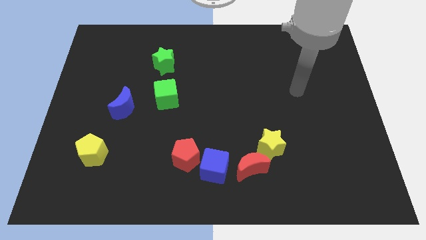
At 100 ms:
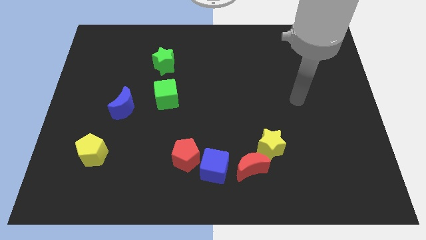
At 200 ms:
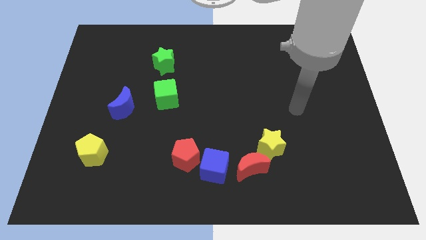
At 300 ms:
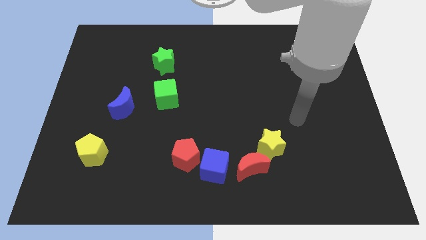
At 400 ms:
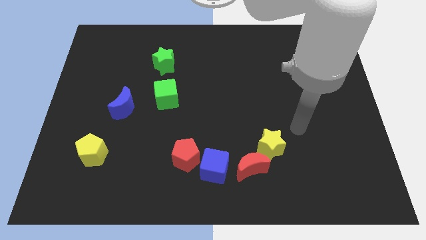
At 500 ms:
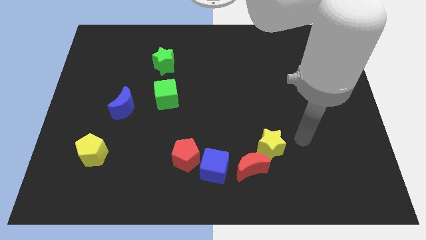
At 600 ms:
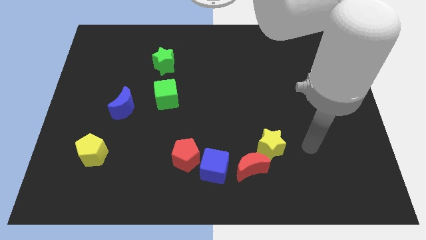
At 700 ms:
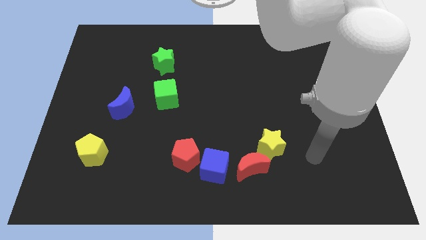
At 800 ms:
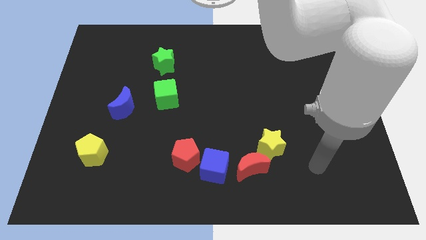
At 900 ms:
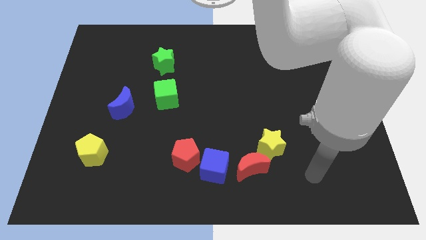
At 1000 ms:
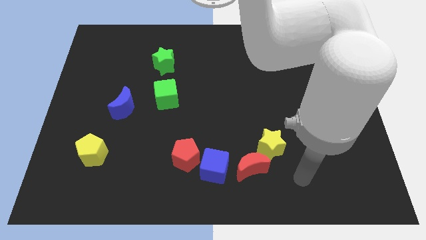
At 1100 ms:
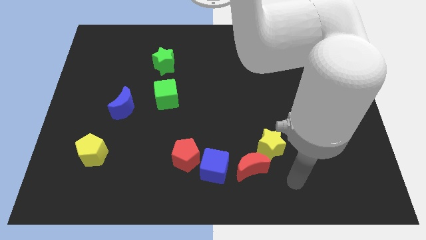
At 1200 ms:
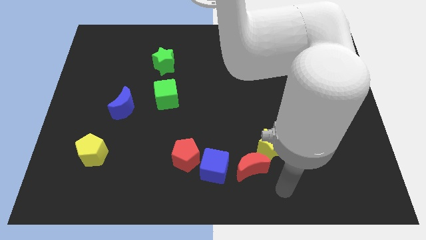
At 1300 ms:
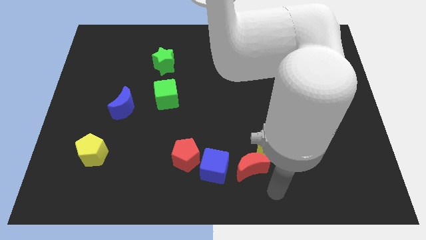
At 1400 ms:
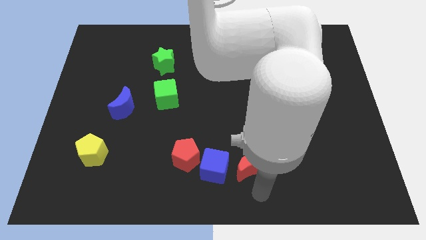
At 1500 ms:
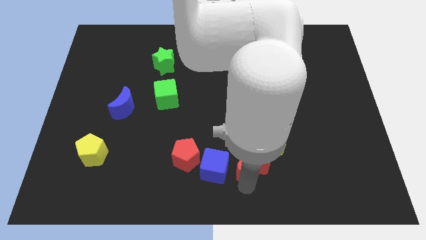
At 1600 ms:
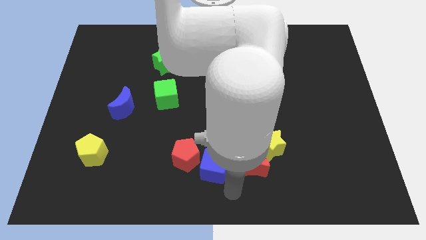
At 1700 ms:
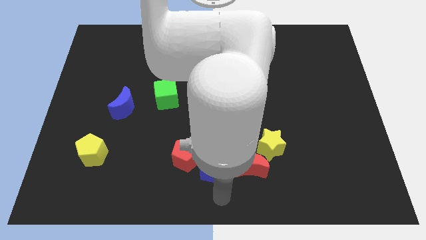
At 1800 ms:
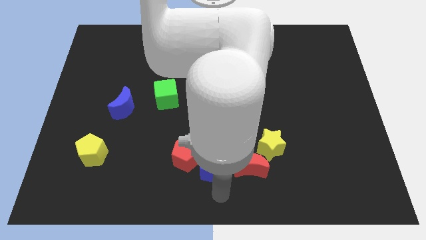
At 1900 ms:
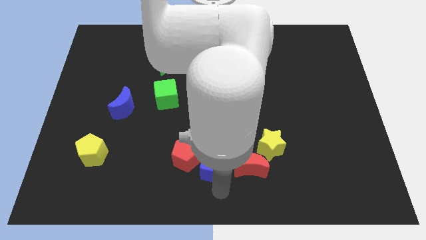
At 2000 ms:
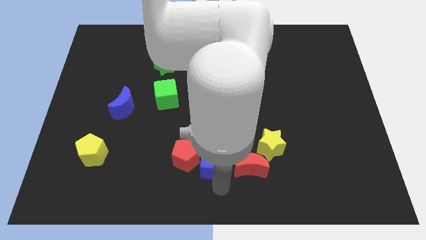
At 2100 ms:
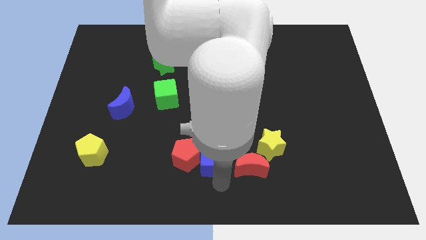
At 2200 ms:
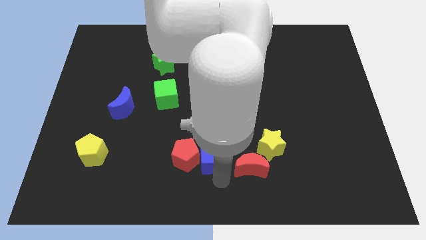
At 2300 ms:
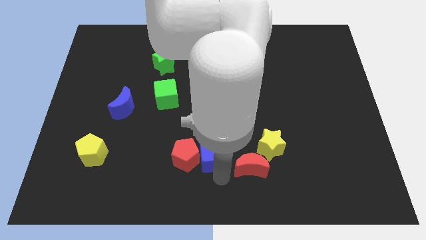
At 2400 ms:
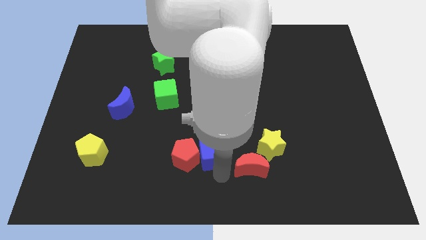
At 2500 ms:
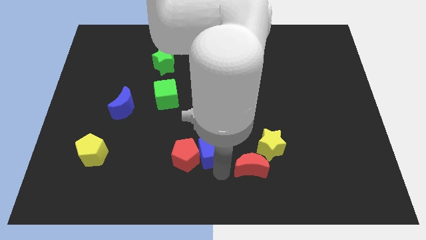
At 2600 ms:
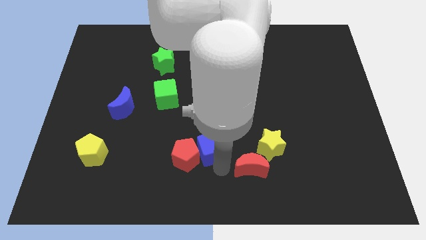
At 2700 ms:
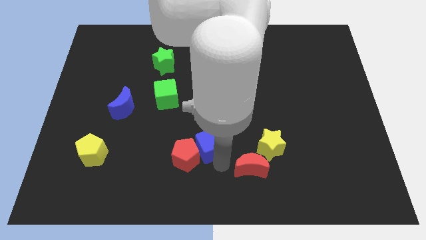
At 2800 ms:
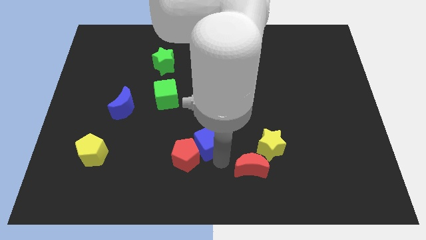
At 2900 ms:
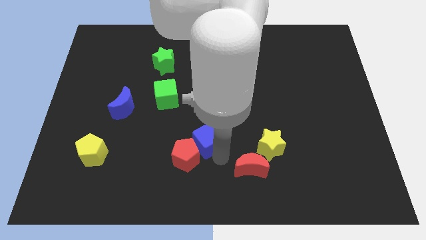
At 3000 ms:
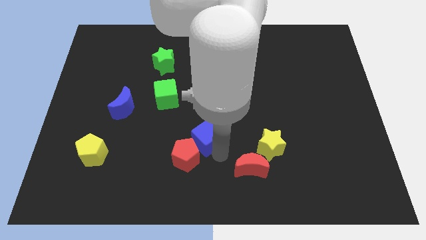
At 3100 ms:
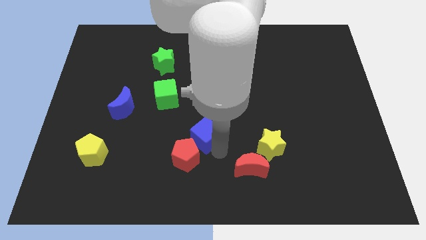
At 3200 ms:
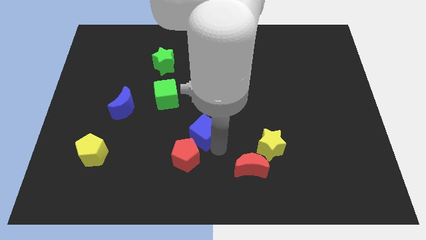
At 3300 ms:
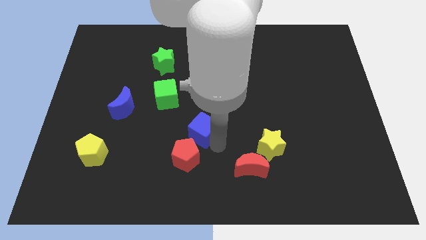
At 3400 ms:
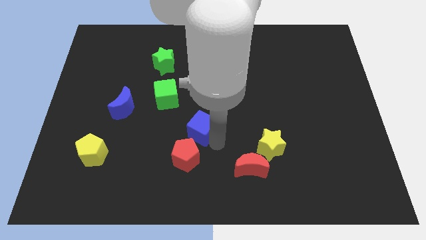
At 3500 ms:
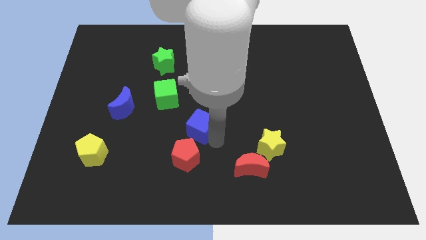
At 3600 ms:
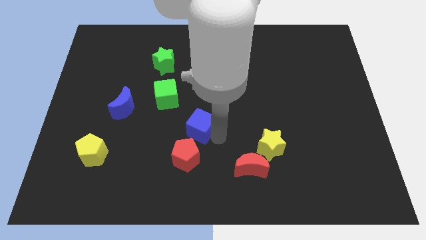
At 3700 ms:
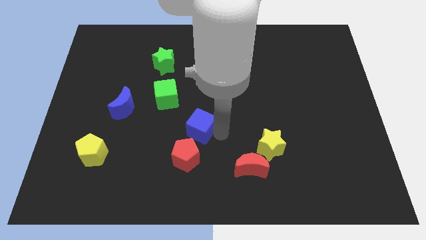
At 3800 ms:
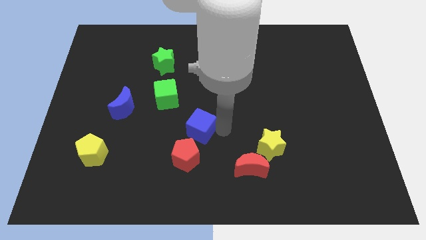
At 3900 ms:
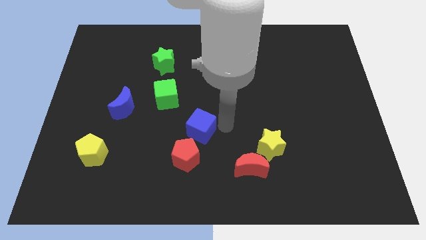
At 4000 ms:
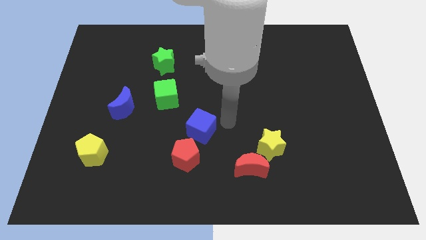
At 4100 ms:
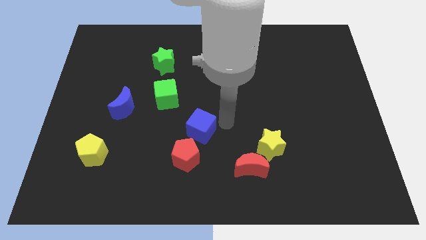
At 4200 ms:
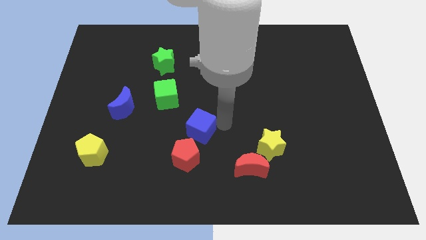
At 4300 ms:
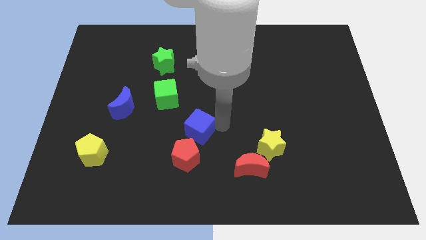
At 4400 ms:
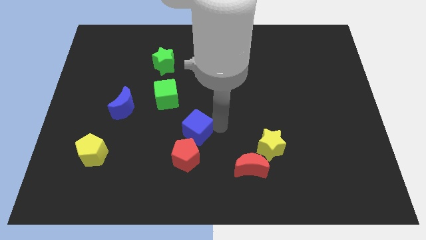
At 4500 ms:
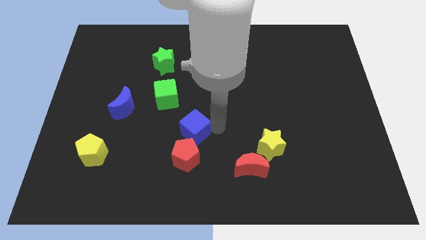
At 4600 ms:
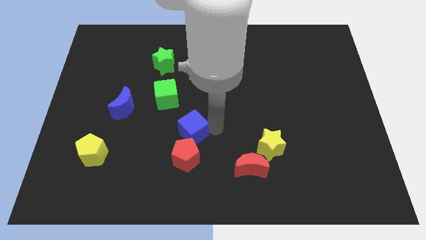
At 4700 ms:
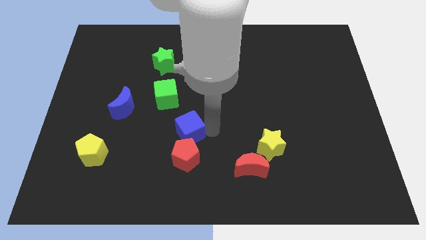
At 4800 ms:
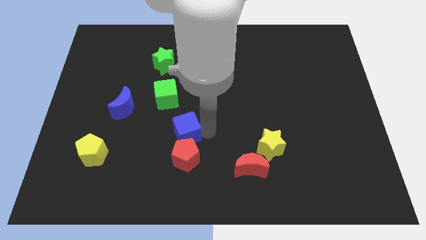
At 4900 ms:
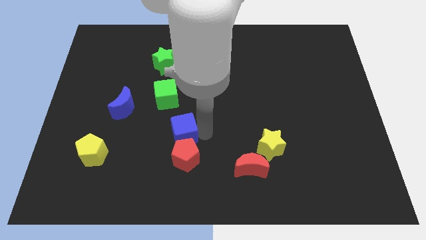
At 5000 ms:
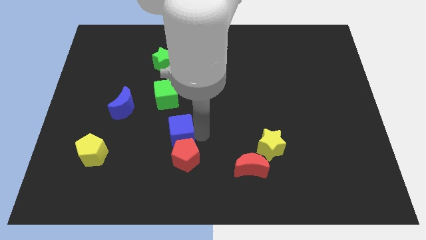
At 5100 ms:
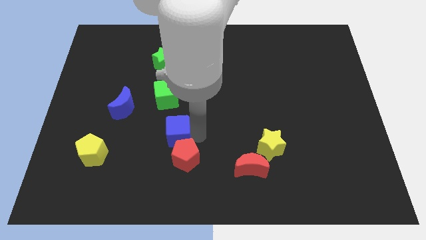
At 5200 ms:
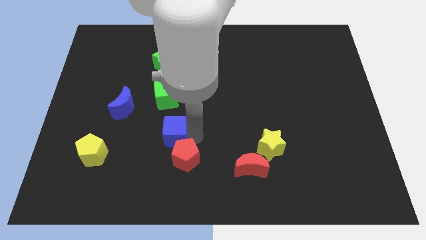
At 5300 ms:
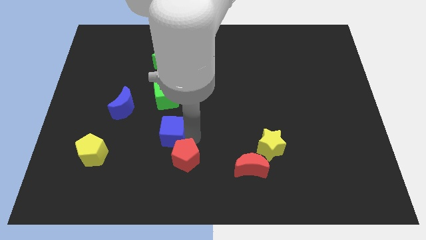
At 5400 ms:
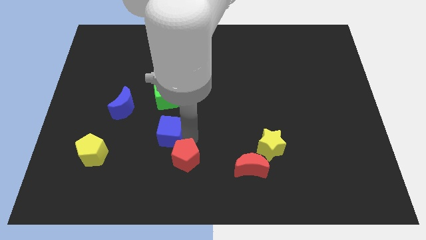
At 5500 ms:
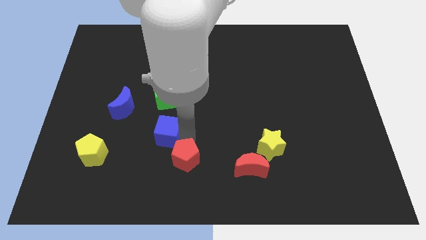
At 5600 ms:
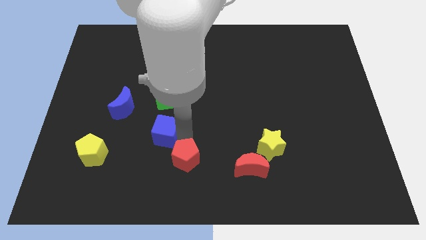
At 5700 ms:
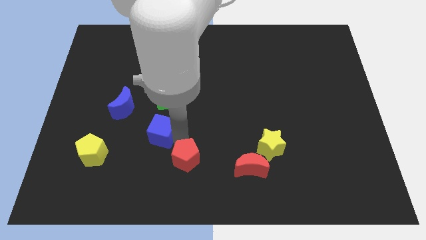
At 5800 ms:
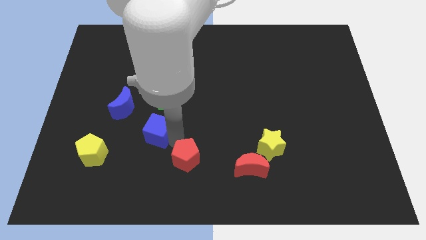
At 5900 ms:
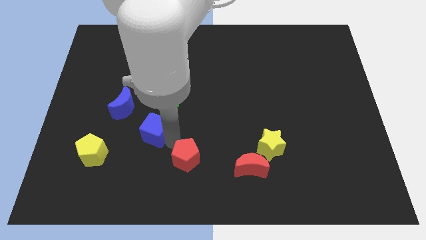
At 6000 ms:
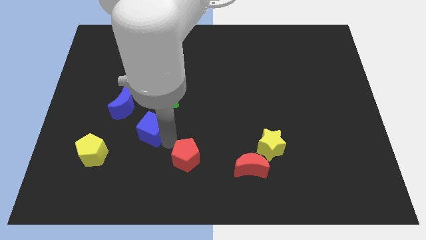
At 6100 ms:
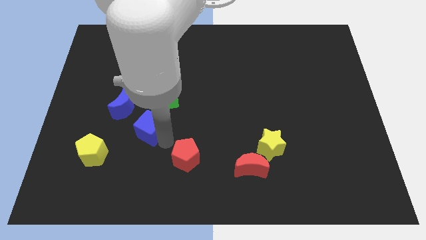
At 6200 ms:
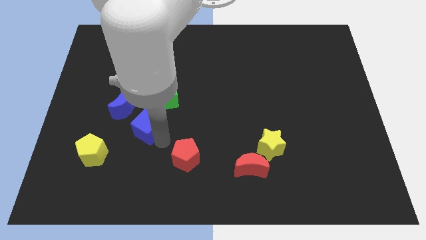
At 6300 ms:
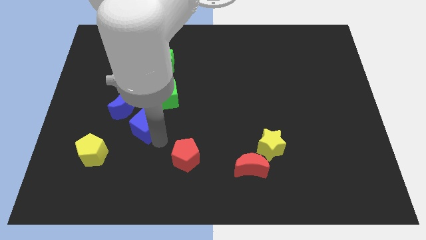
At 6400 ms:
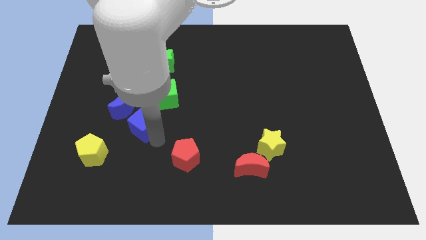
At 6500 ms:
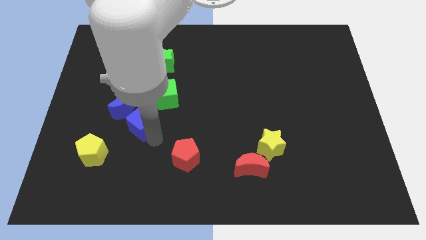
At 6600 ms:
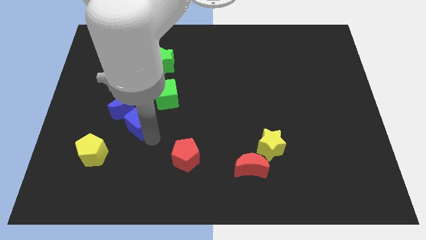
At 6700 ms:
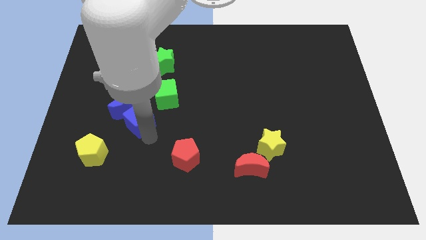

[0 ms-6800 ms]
push the blue cube next to the blue moon

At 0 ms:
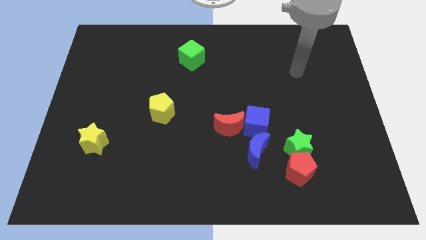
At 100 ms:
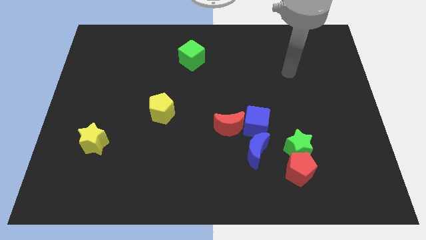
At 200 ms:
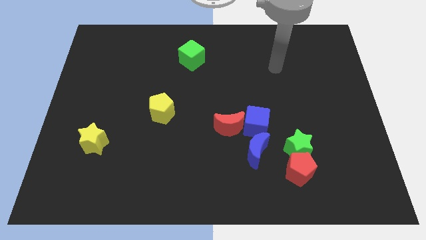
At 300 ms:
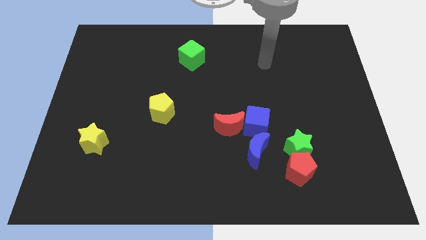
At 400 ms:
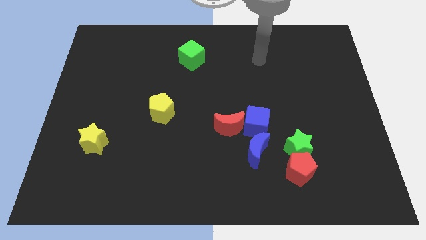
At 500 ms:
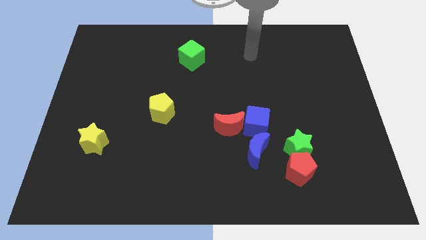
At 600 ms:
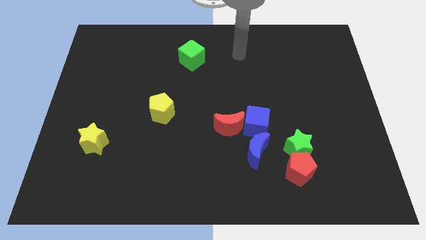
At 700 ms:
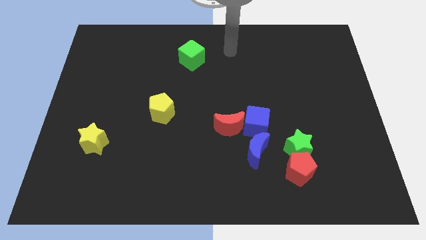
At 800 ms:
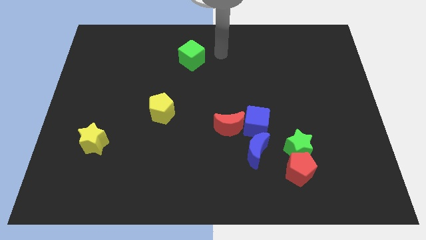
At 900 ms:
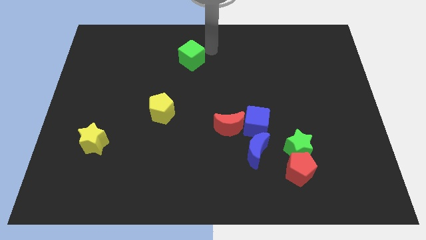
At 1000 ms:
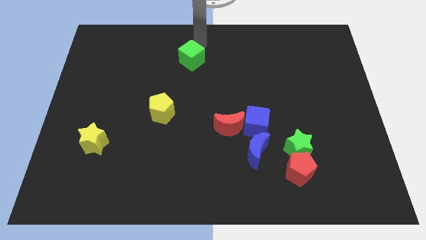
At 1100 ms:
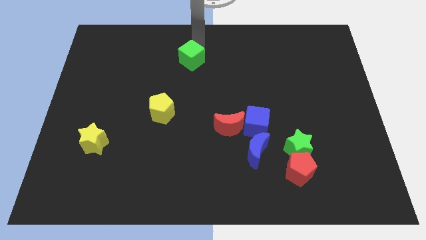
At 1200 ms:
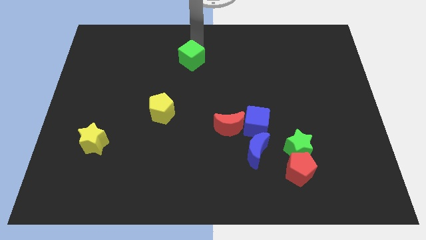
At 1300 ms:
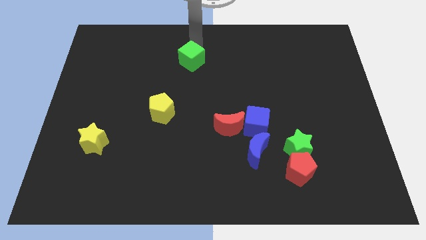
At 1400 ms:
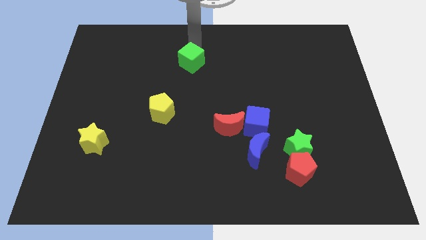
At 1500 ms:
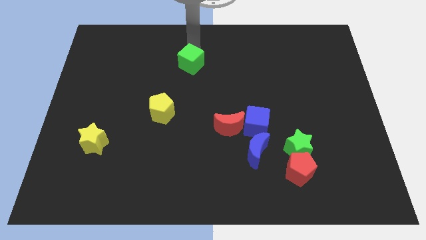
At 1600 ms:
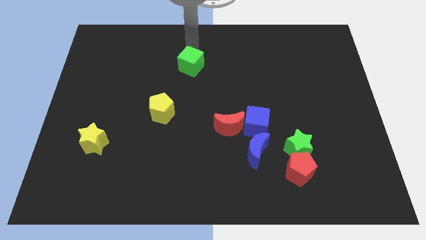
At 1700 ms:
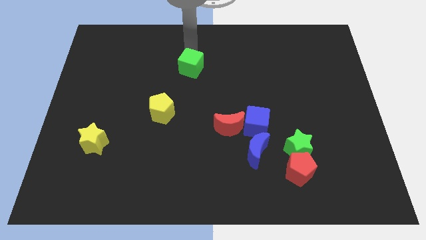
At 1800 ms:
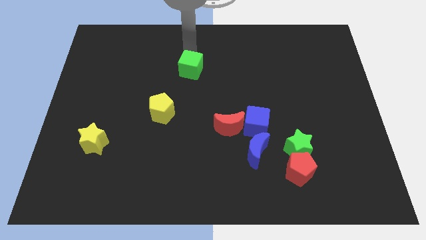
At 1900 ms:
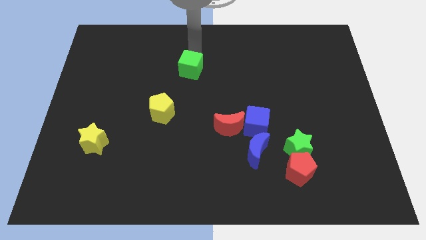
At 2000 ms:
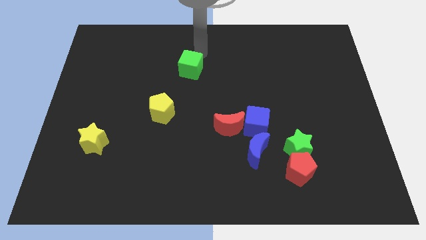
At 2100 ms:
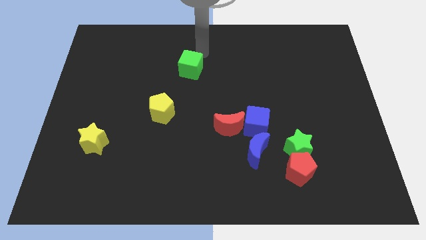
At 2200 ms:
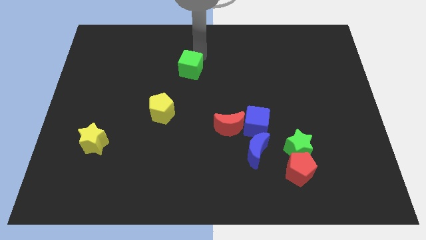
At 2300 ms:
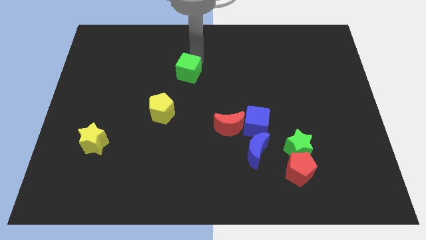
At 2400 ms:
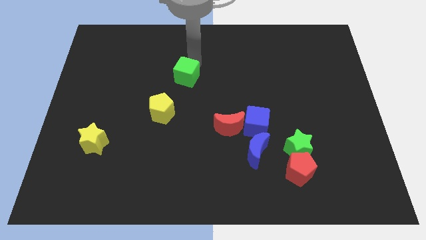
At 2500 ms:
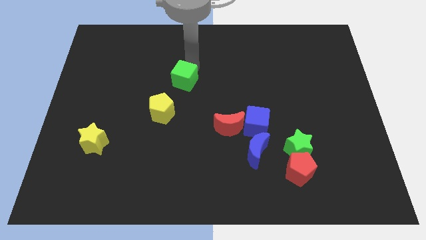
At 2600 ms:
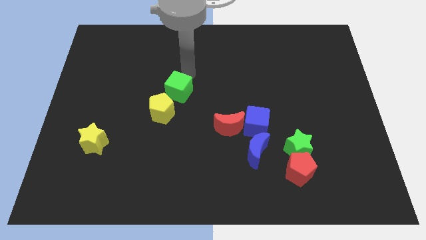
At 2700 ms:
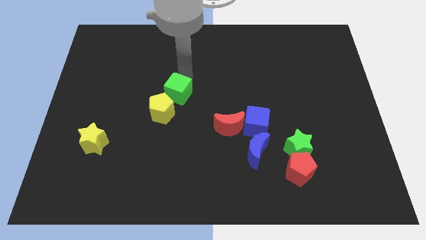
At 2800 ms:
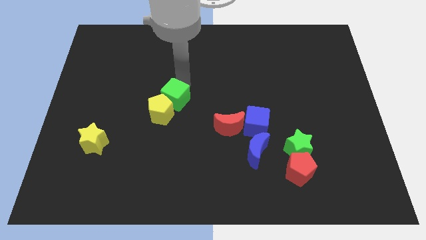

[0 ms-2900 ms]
slide the green cube to the yellow pentagon
